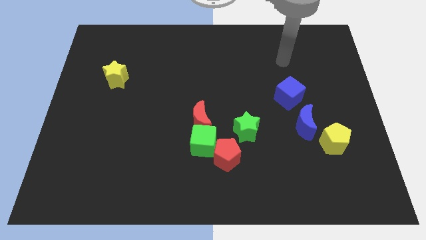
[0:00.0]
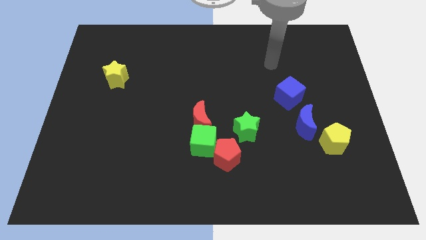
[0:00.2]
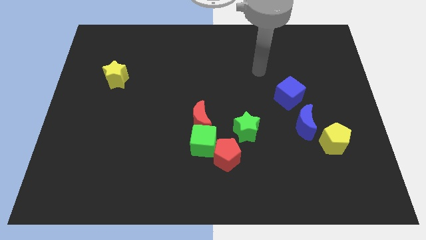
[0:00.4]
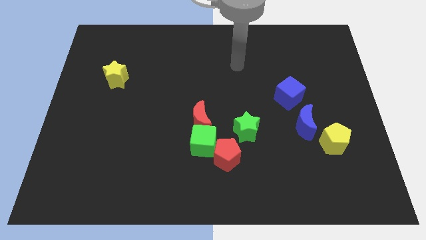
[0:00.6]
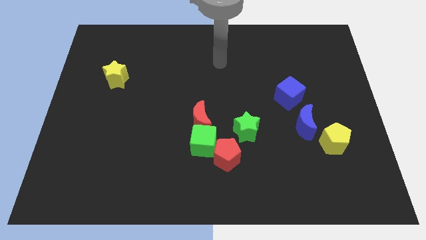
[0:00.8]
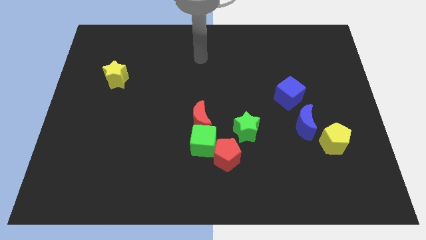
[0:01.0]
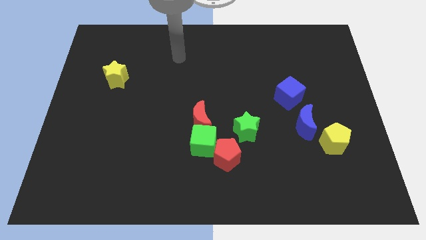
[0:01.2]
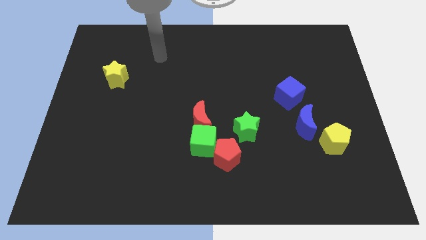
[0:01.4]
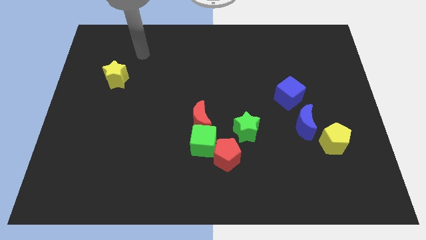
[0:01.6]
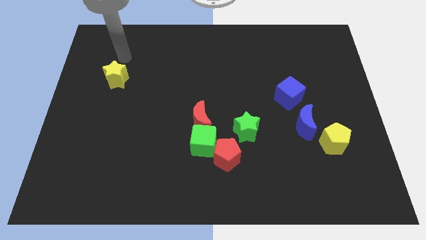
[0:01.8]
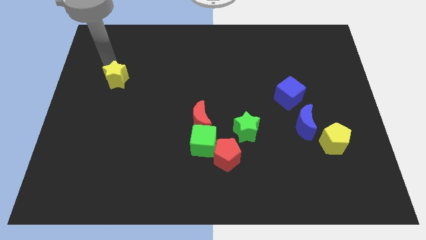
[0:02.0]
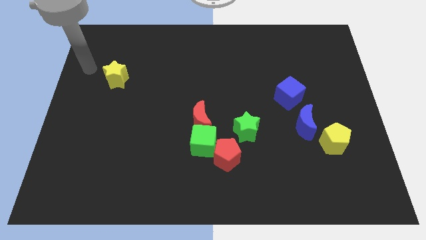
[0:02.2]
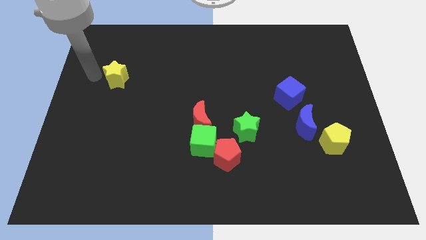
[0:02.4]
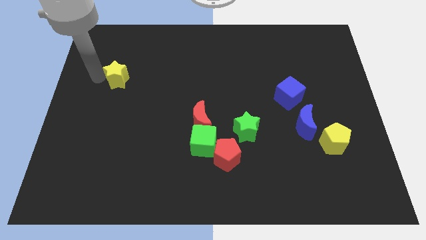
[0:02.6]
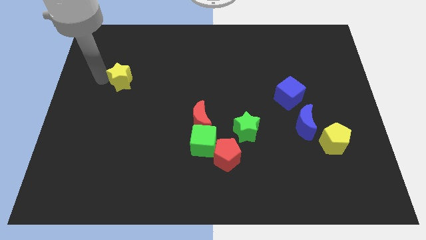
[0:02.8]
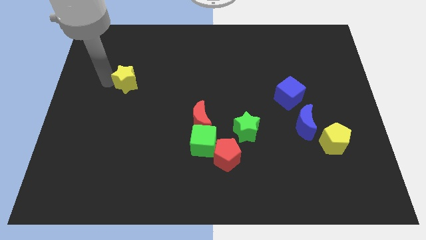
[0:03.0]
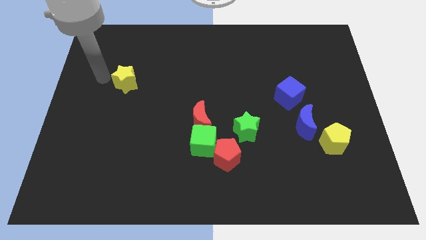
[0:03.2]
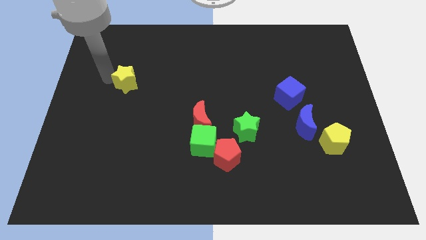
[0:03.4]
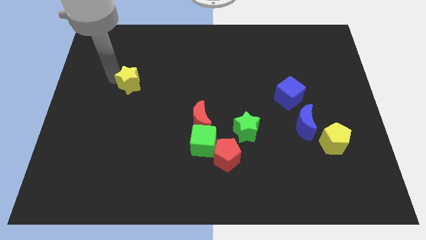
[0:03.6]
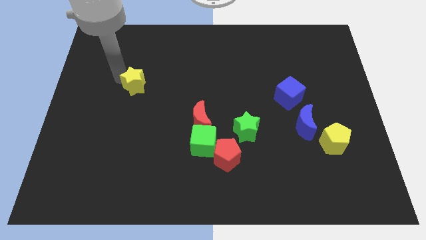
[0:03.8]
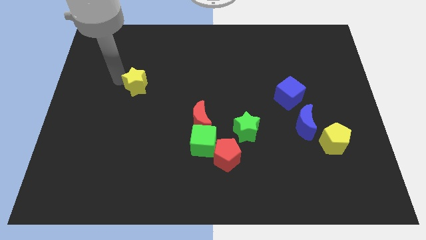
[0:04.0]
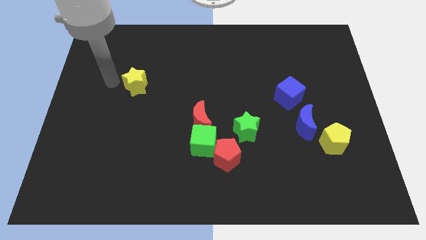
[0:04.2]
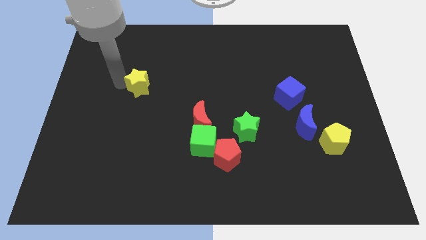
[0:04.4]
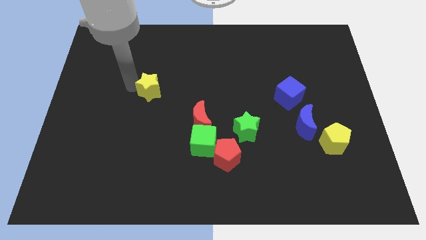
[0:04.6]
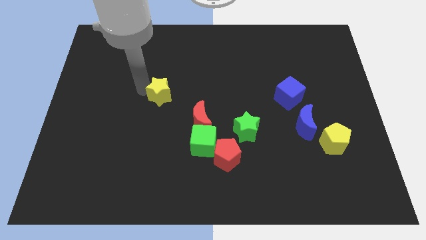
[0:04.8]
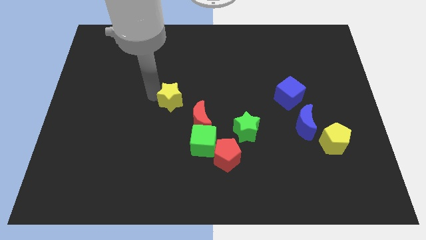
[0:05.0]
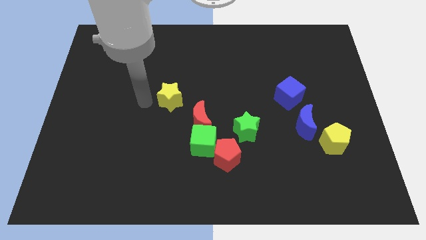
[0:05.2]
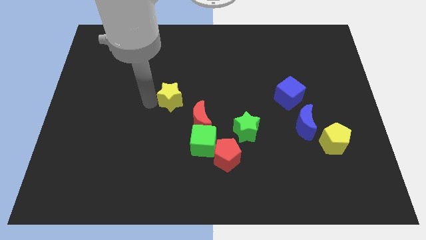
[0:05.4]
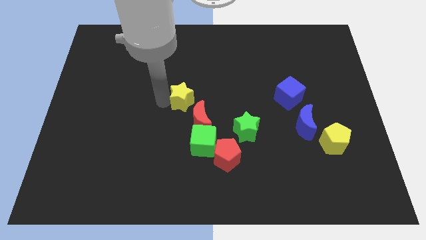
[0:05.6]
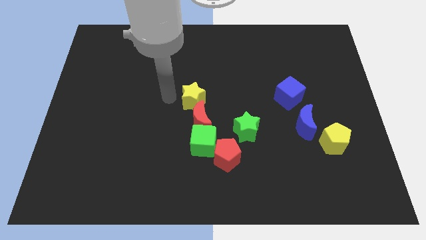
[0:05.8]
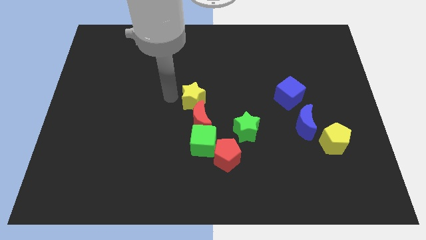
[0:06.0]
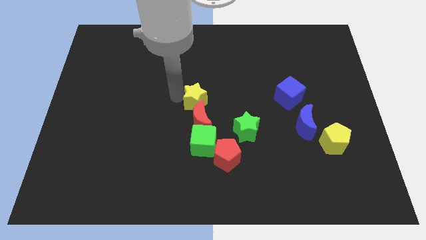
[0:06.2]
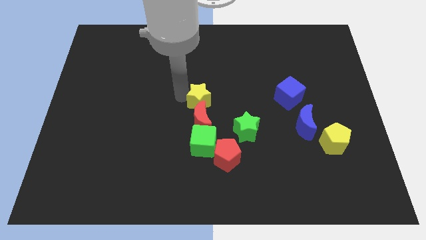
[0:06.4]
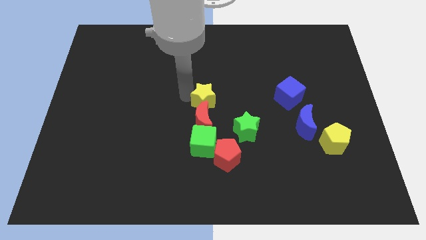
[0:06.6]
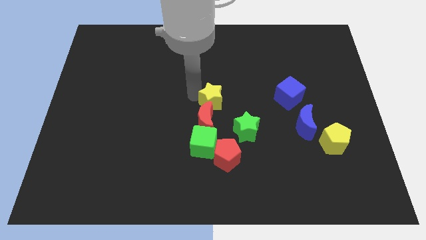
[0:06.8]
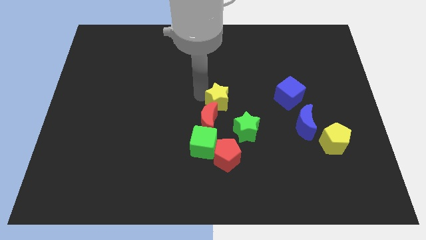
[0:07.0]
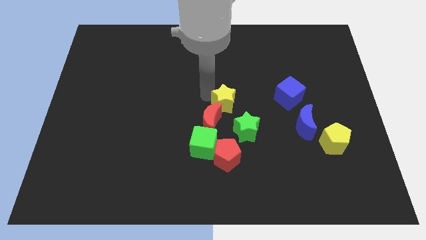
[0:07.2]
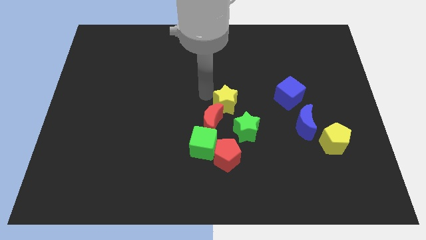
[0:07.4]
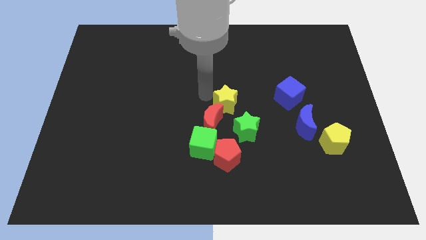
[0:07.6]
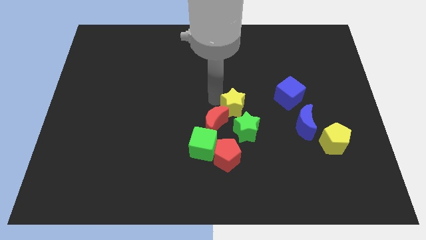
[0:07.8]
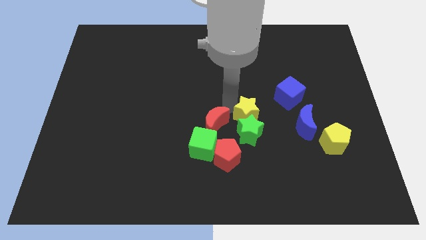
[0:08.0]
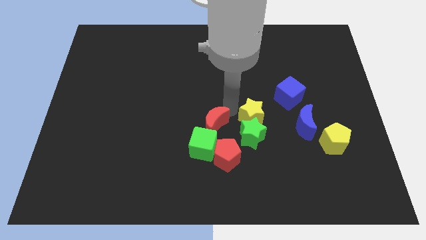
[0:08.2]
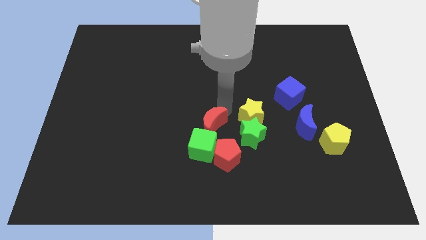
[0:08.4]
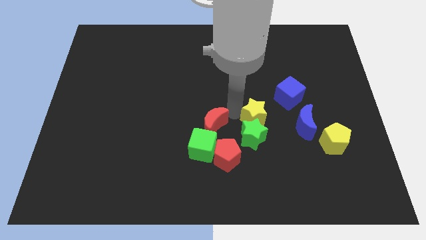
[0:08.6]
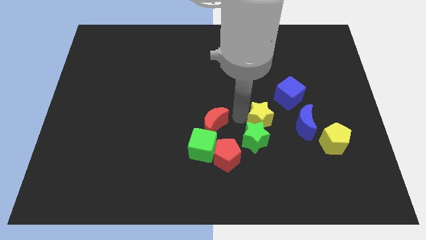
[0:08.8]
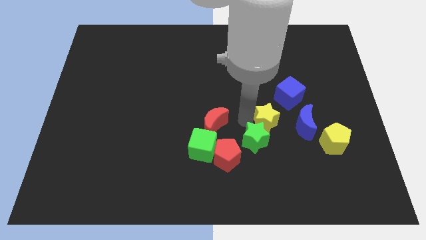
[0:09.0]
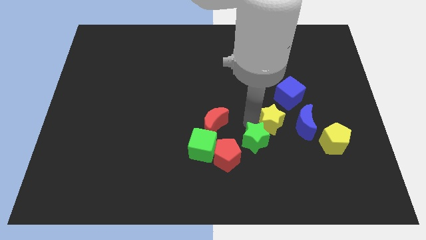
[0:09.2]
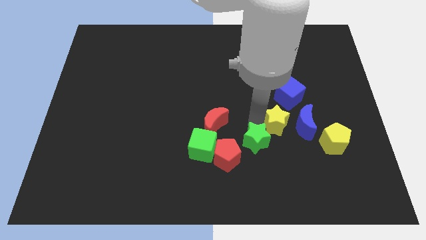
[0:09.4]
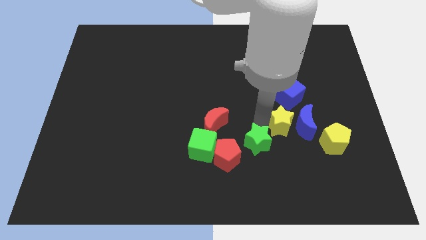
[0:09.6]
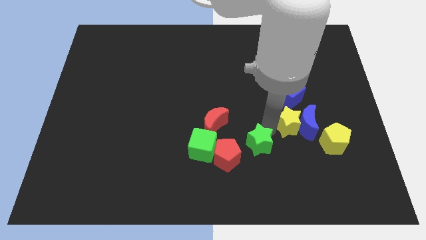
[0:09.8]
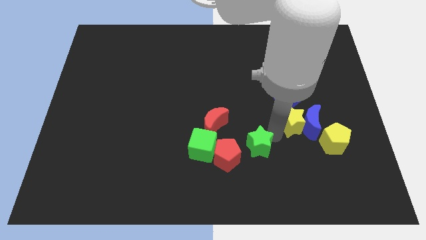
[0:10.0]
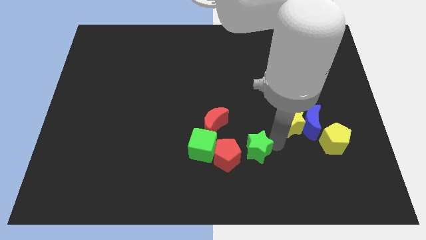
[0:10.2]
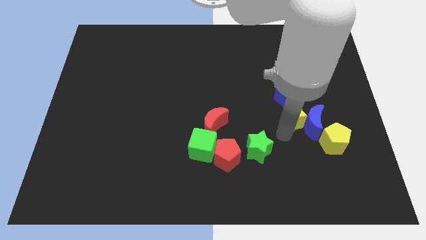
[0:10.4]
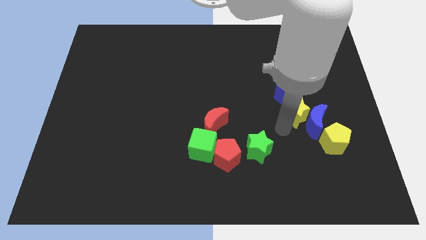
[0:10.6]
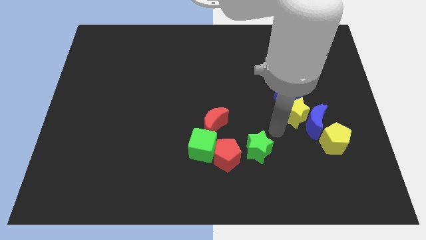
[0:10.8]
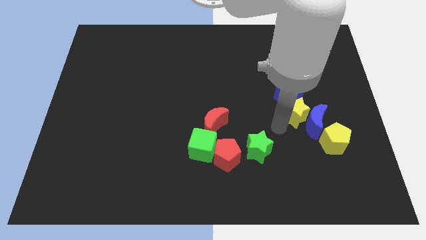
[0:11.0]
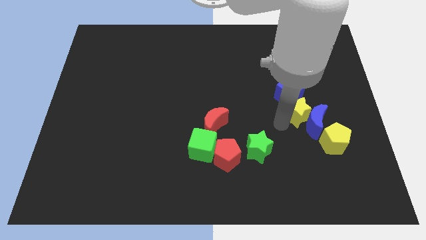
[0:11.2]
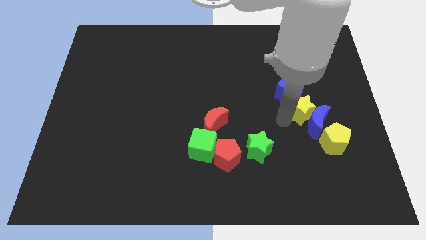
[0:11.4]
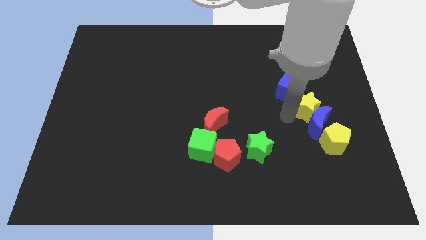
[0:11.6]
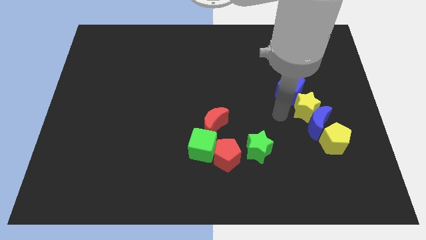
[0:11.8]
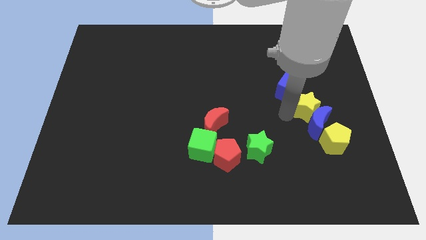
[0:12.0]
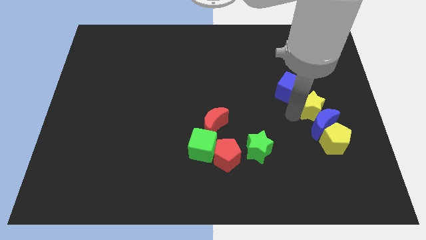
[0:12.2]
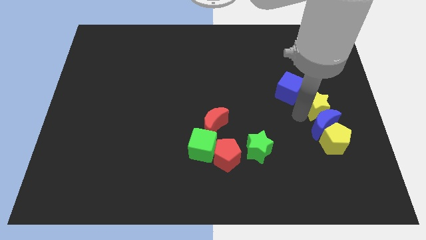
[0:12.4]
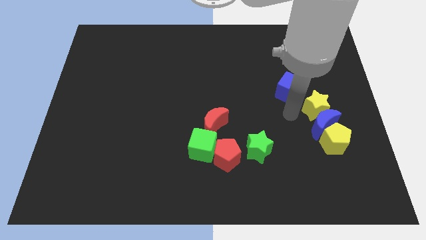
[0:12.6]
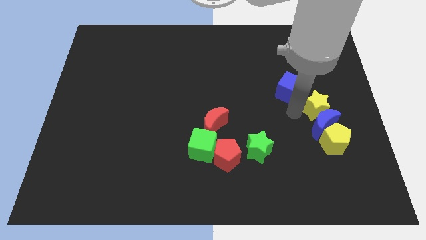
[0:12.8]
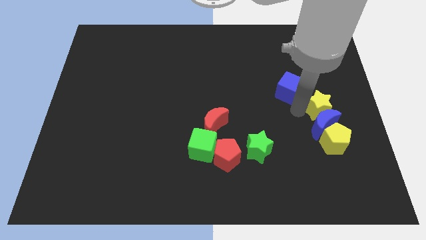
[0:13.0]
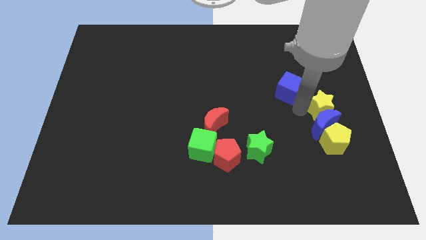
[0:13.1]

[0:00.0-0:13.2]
move the yellow star to the right side
